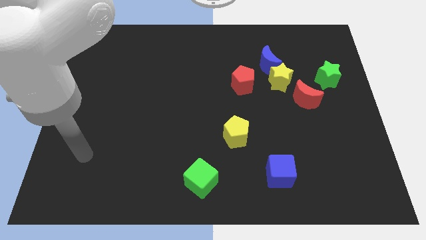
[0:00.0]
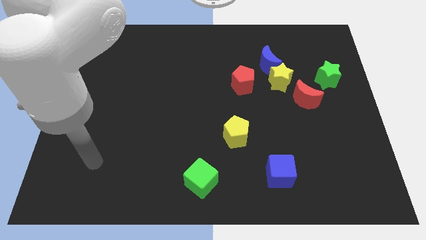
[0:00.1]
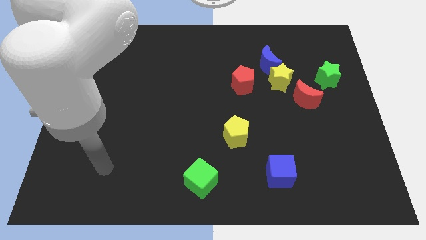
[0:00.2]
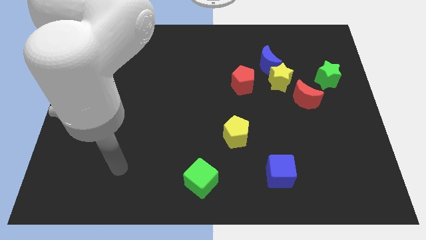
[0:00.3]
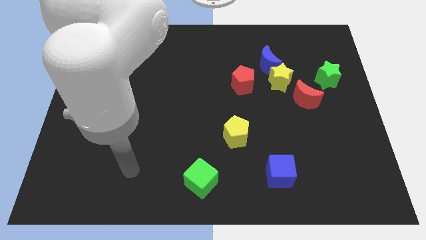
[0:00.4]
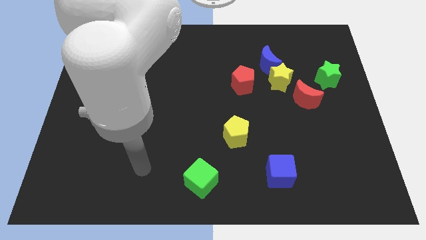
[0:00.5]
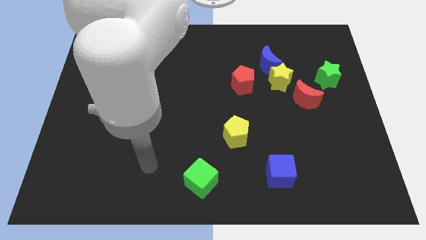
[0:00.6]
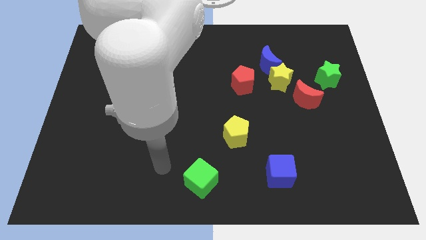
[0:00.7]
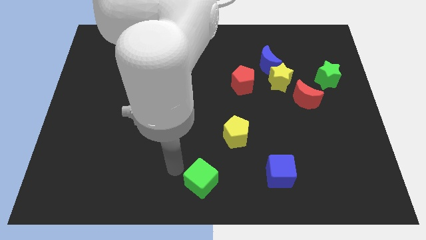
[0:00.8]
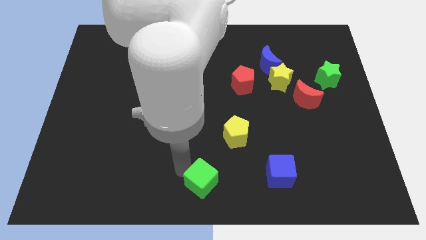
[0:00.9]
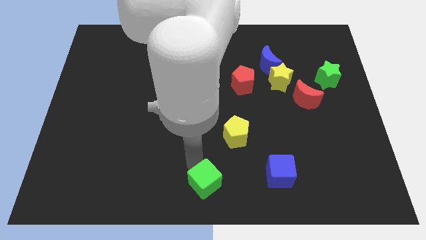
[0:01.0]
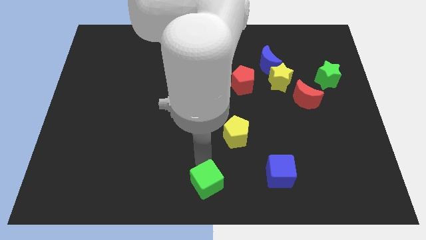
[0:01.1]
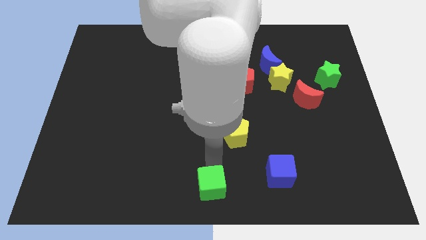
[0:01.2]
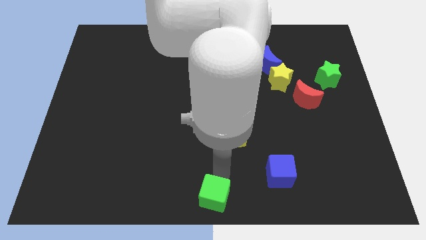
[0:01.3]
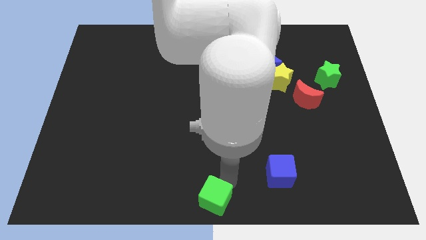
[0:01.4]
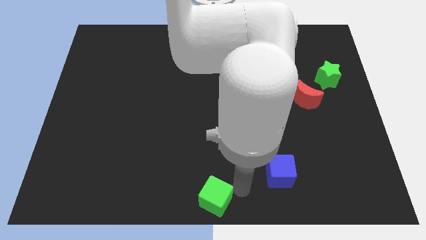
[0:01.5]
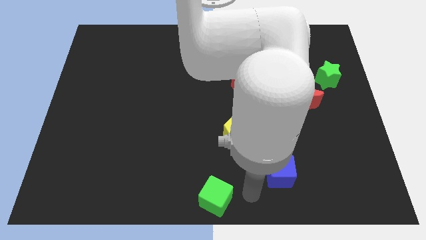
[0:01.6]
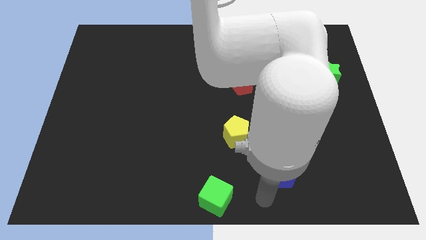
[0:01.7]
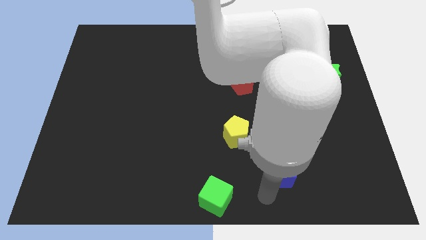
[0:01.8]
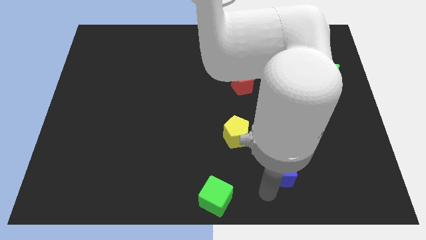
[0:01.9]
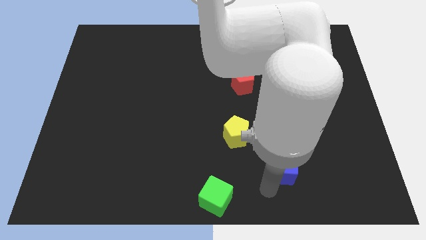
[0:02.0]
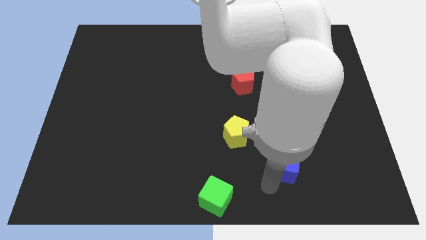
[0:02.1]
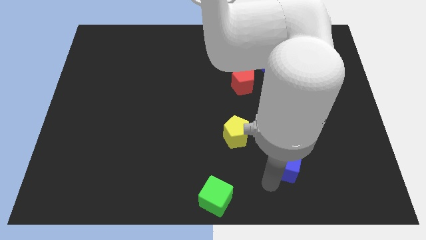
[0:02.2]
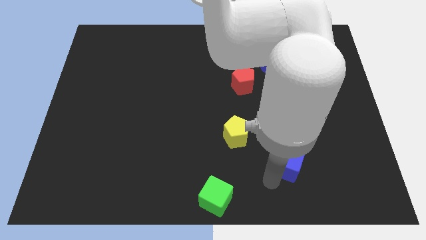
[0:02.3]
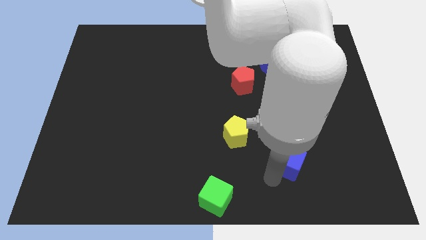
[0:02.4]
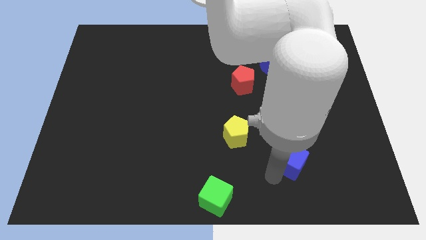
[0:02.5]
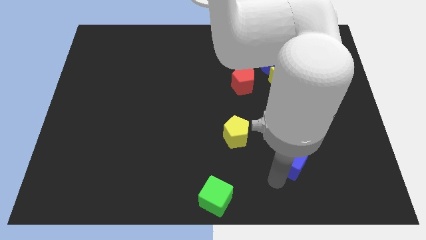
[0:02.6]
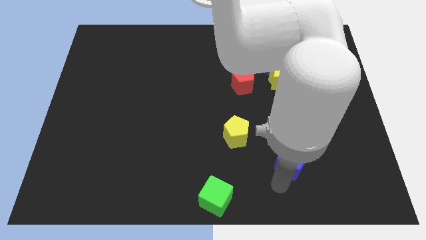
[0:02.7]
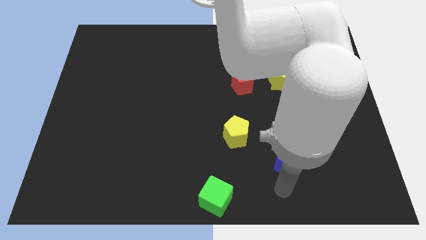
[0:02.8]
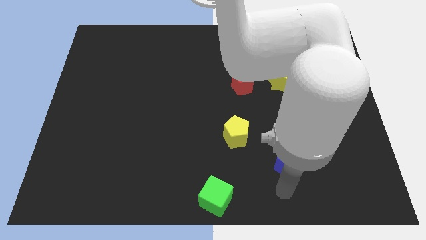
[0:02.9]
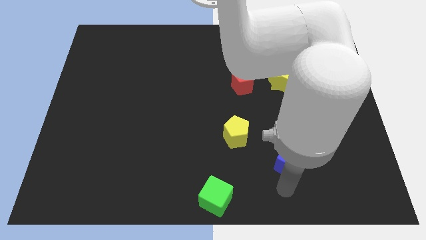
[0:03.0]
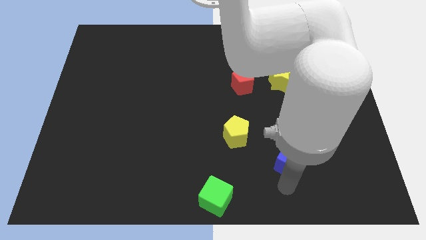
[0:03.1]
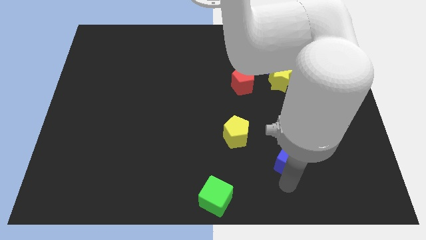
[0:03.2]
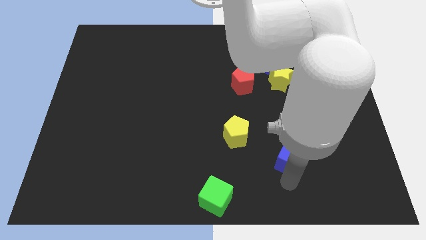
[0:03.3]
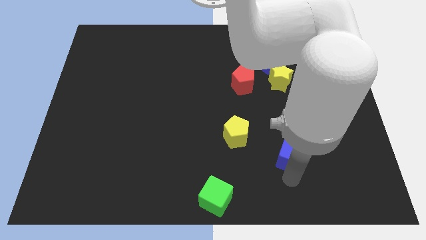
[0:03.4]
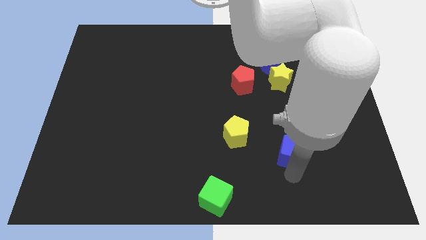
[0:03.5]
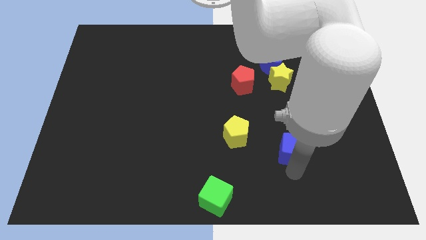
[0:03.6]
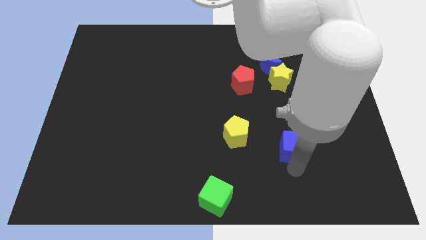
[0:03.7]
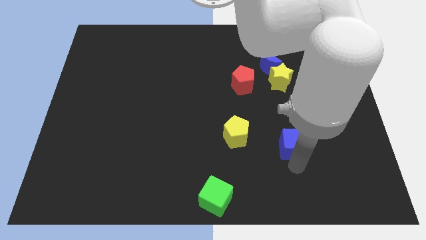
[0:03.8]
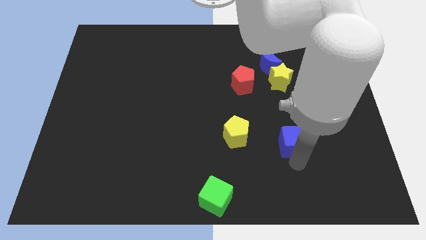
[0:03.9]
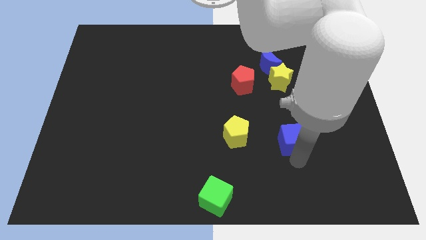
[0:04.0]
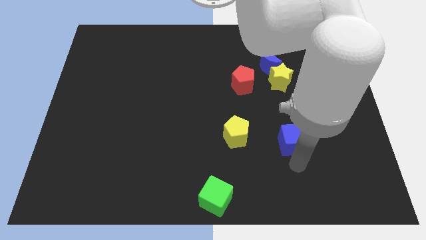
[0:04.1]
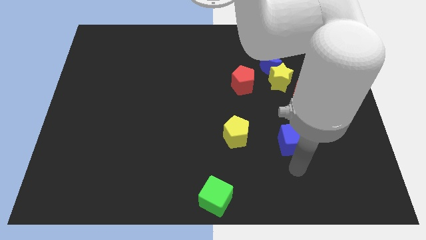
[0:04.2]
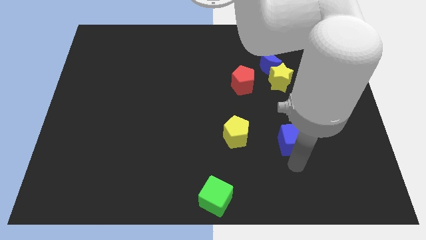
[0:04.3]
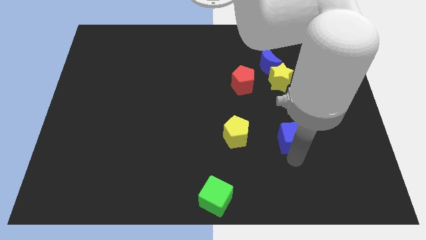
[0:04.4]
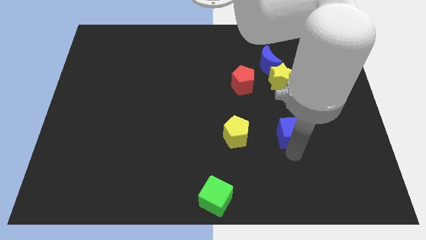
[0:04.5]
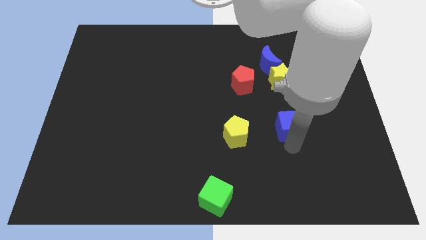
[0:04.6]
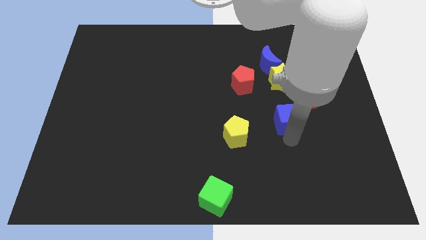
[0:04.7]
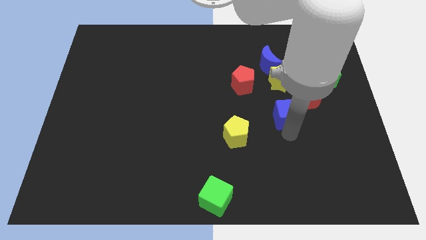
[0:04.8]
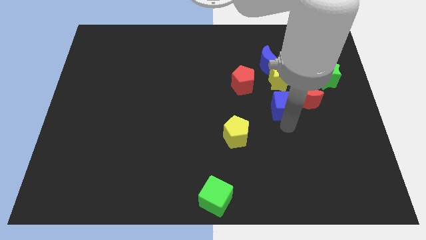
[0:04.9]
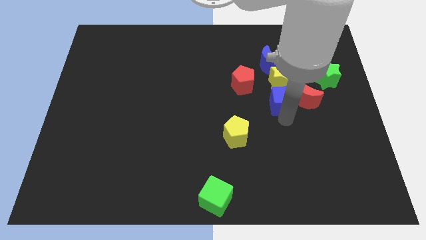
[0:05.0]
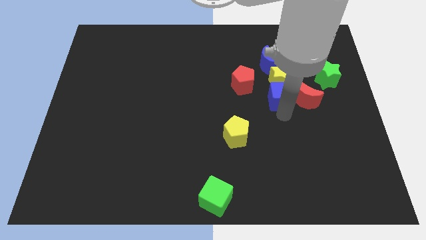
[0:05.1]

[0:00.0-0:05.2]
move the blue cube next to the yellow star

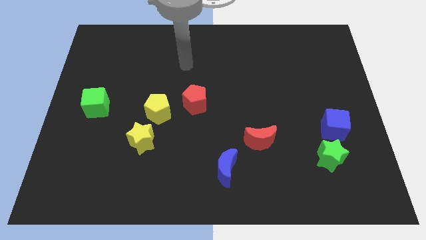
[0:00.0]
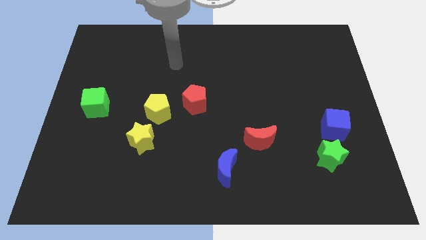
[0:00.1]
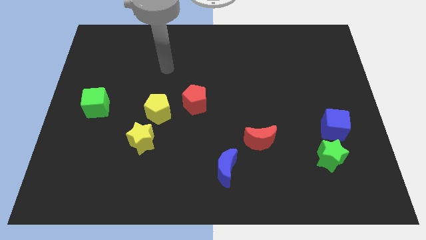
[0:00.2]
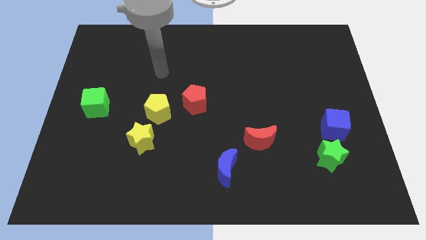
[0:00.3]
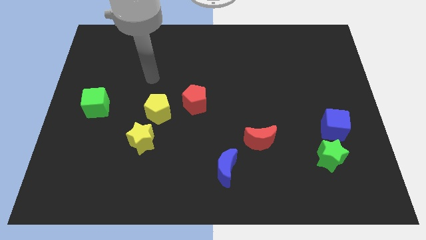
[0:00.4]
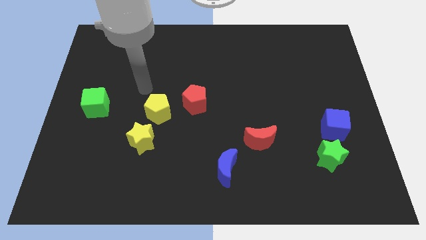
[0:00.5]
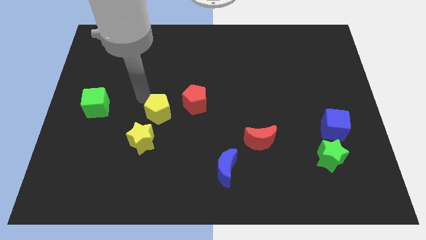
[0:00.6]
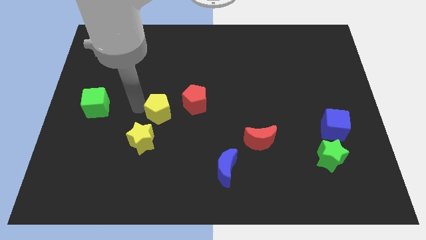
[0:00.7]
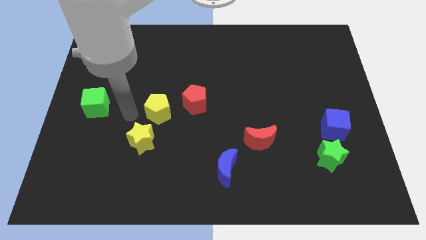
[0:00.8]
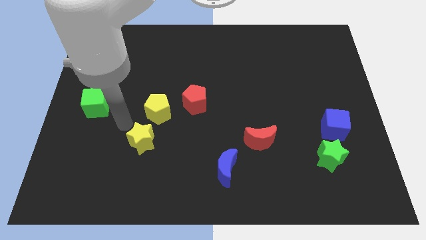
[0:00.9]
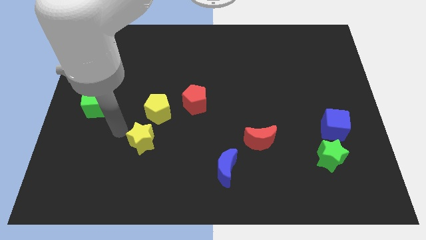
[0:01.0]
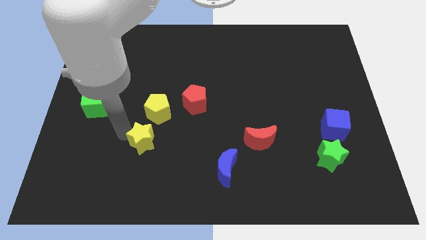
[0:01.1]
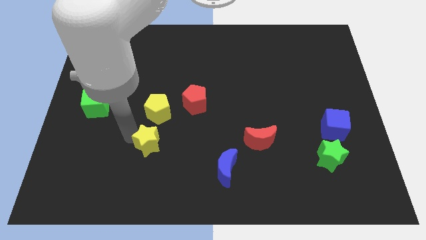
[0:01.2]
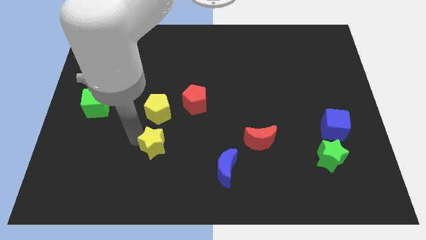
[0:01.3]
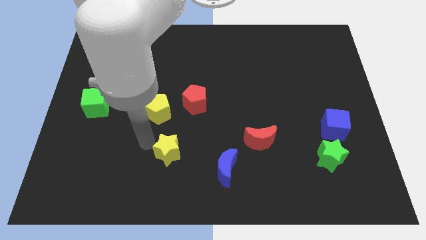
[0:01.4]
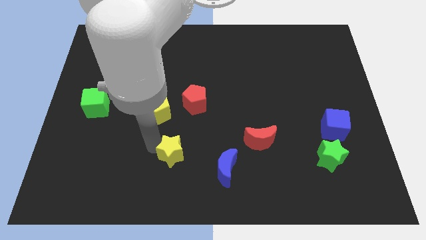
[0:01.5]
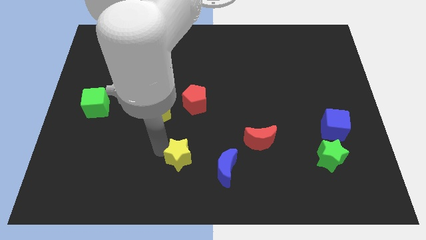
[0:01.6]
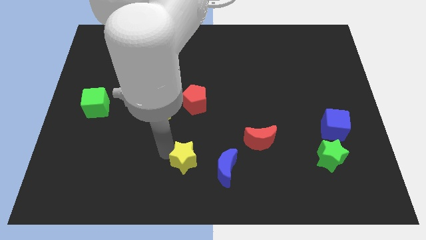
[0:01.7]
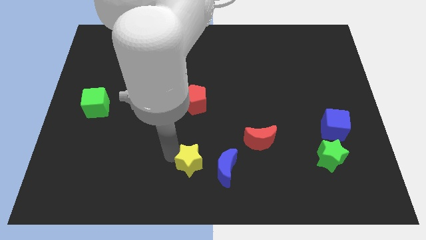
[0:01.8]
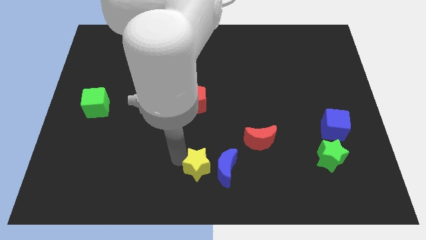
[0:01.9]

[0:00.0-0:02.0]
move the yellow star towards the blue moon
